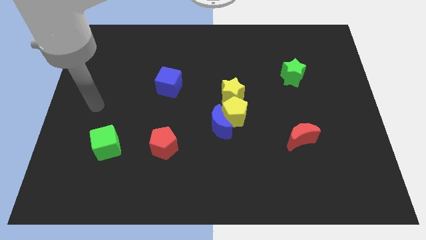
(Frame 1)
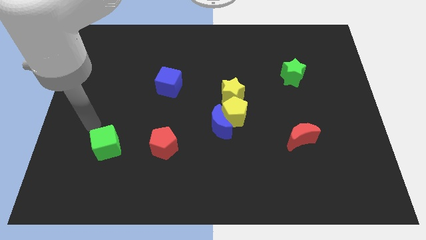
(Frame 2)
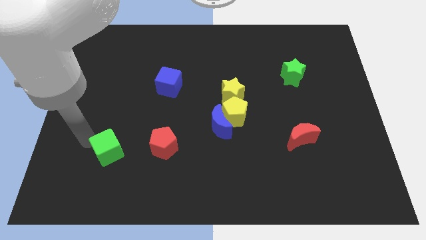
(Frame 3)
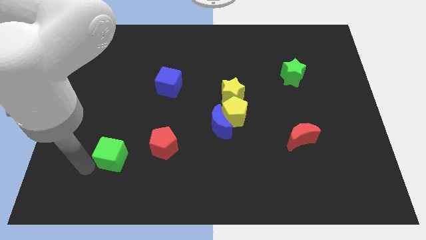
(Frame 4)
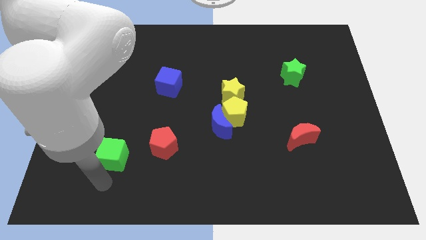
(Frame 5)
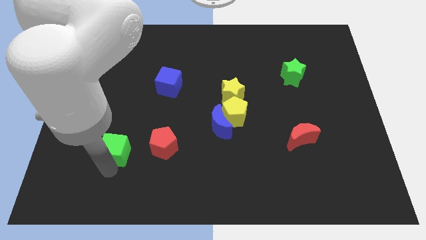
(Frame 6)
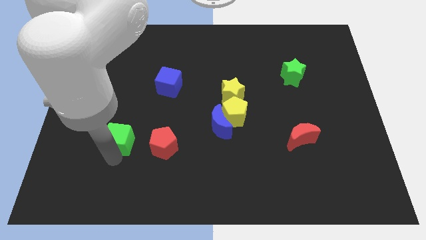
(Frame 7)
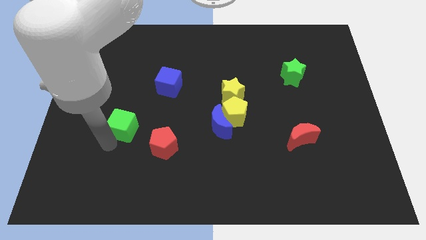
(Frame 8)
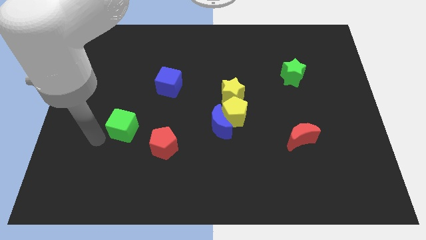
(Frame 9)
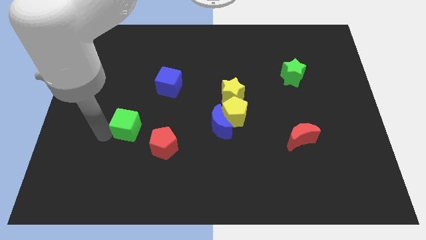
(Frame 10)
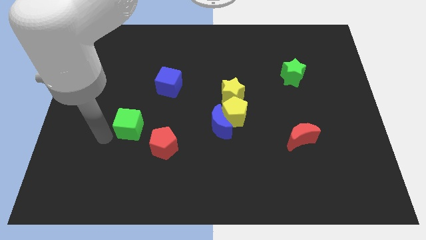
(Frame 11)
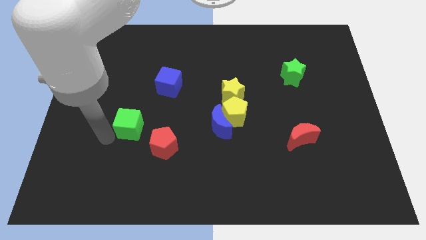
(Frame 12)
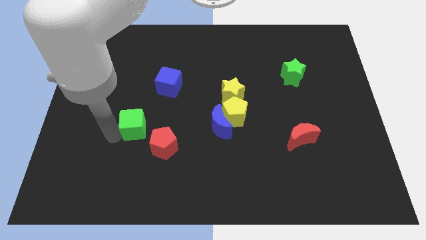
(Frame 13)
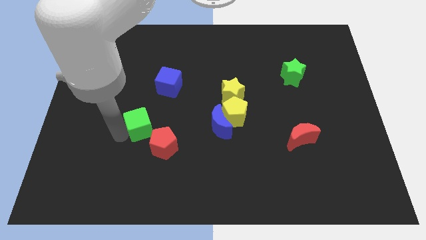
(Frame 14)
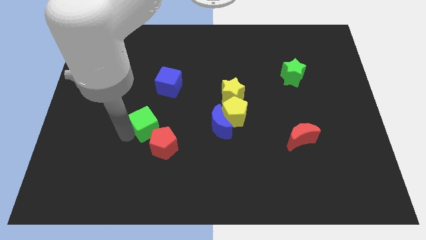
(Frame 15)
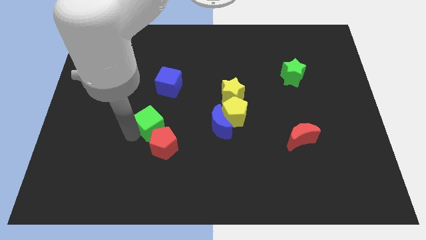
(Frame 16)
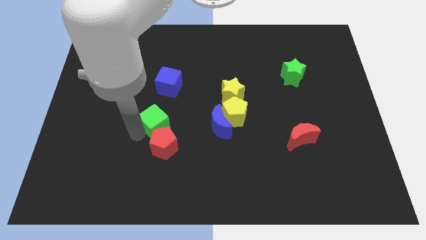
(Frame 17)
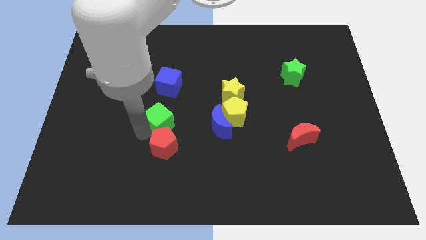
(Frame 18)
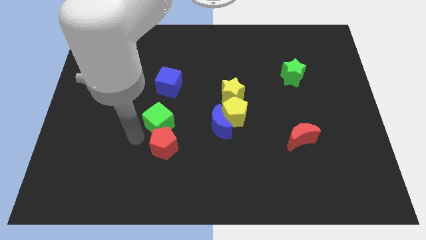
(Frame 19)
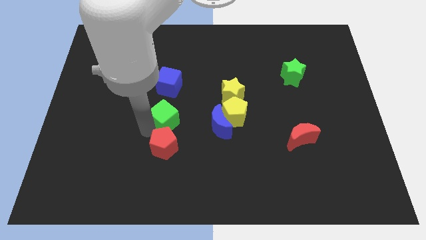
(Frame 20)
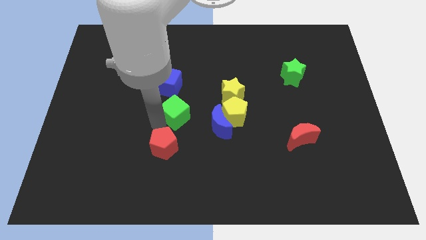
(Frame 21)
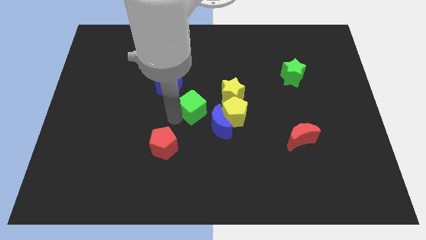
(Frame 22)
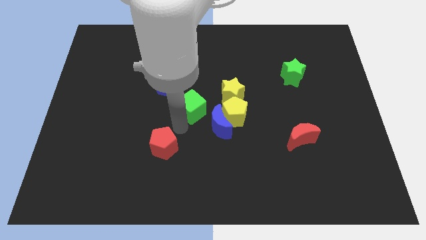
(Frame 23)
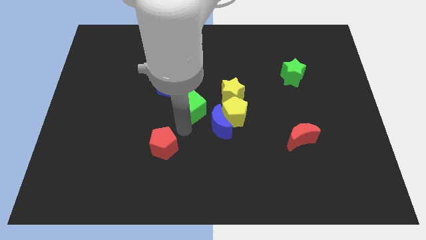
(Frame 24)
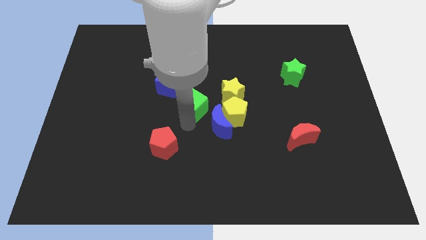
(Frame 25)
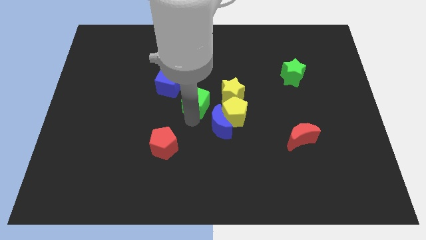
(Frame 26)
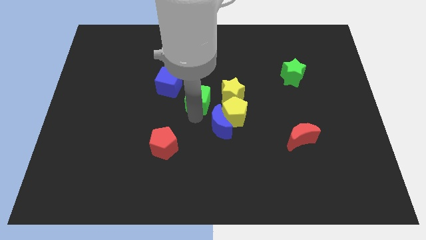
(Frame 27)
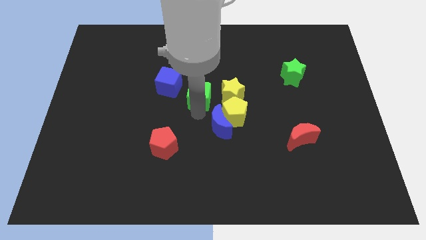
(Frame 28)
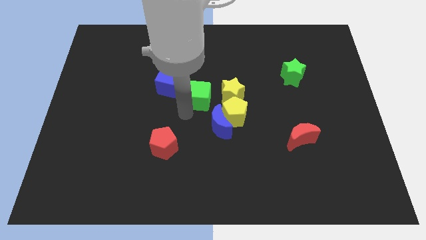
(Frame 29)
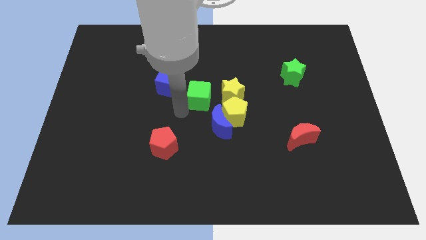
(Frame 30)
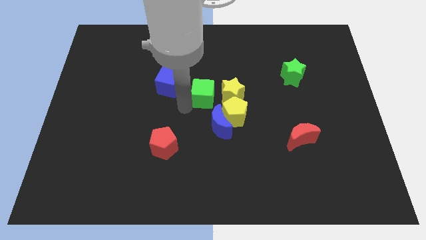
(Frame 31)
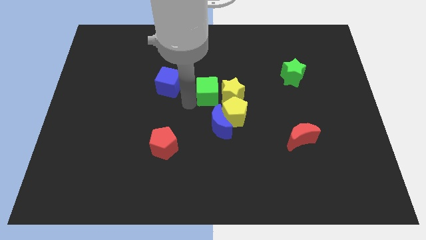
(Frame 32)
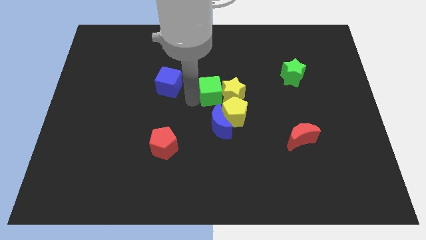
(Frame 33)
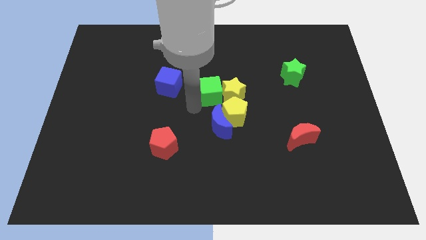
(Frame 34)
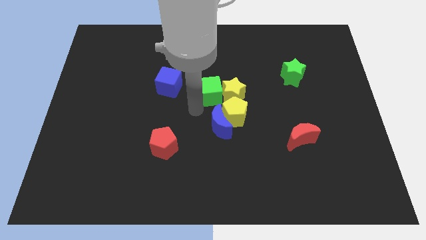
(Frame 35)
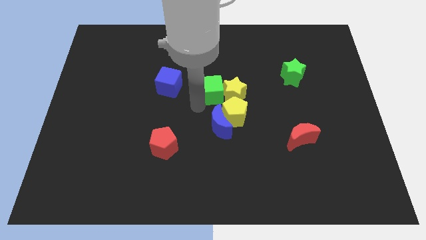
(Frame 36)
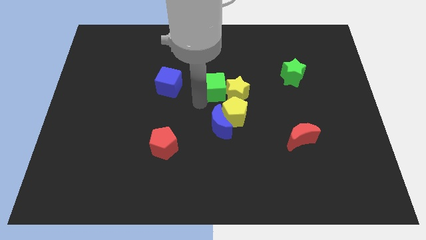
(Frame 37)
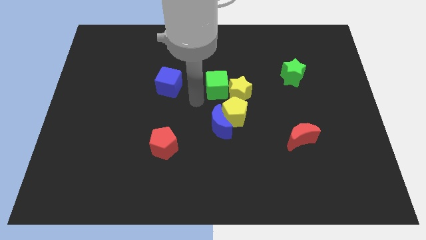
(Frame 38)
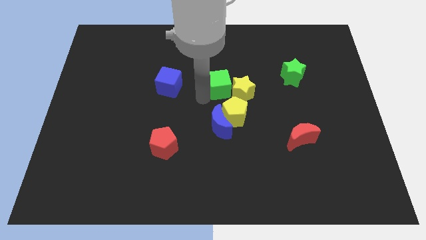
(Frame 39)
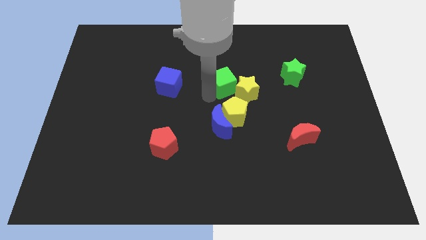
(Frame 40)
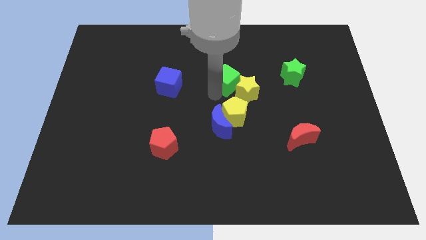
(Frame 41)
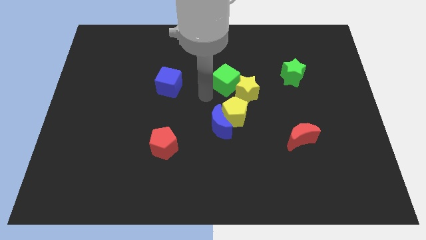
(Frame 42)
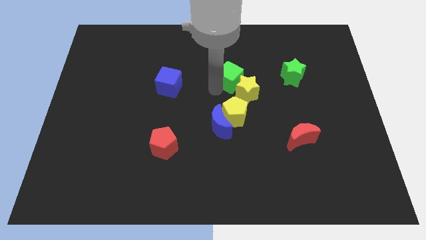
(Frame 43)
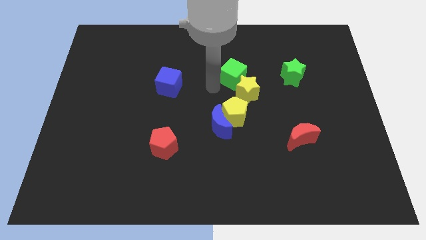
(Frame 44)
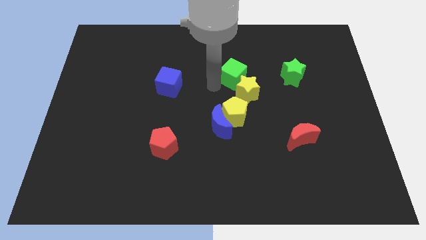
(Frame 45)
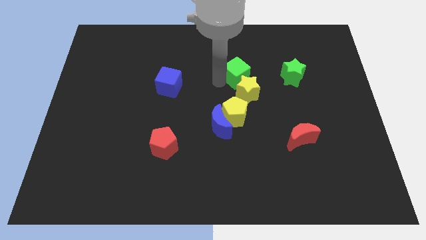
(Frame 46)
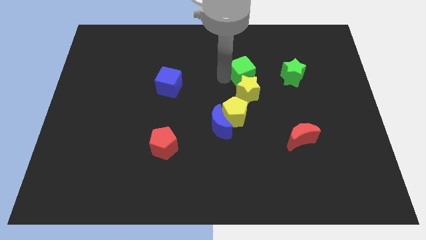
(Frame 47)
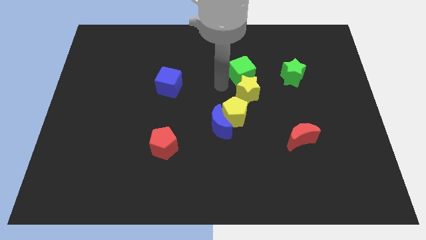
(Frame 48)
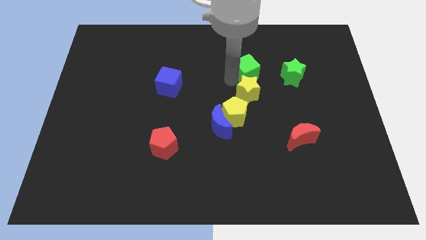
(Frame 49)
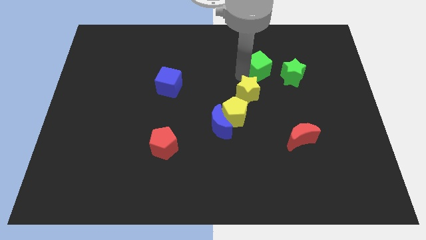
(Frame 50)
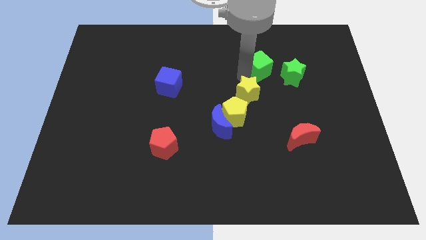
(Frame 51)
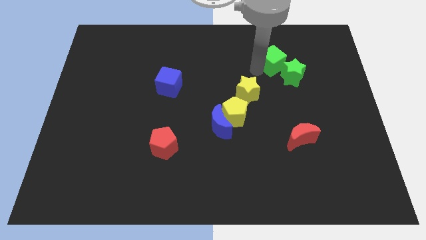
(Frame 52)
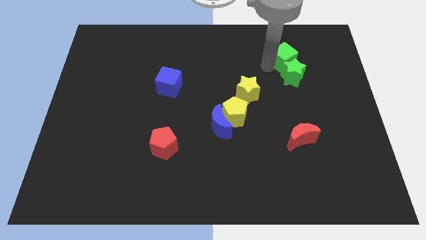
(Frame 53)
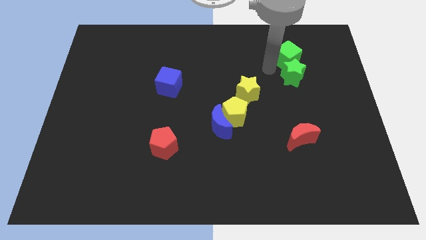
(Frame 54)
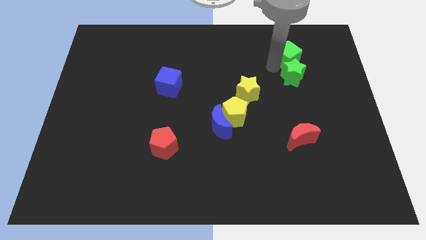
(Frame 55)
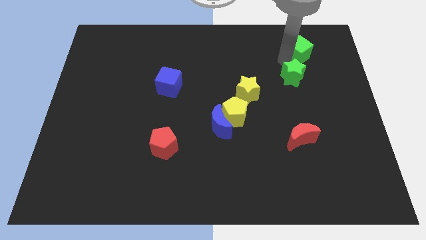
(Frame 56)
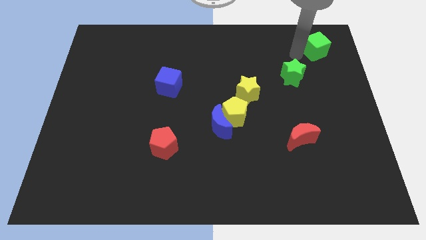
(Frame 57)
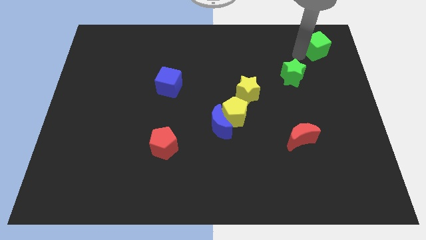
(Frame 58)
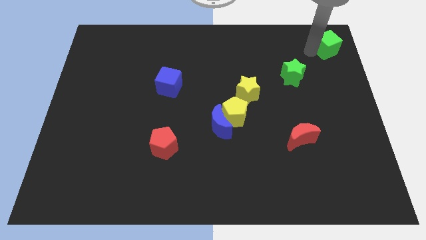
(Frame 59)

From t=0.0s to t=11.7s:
put the green cube to the top right of the board
